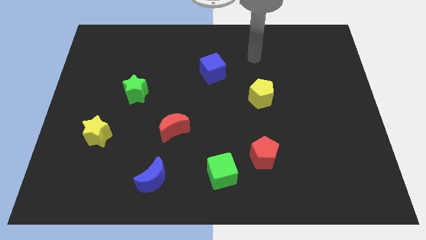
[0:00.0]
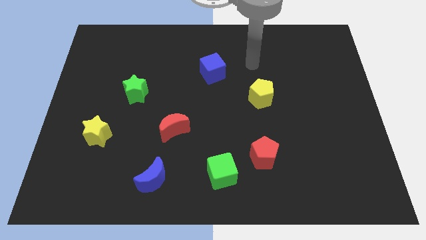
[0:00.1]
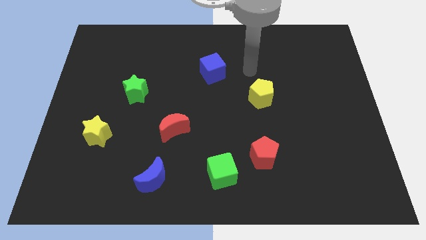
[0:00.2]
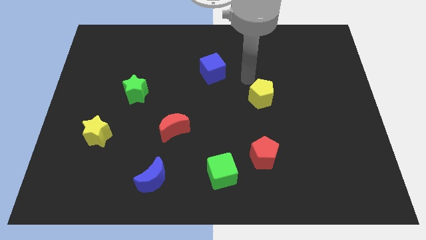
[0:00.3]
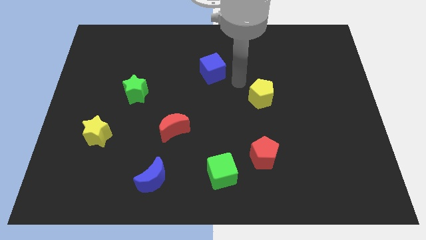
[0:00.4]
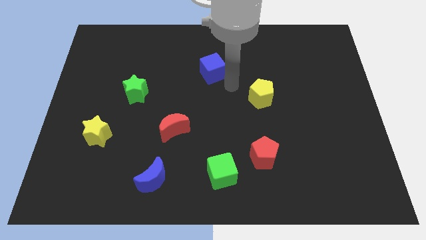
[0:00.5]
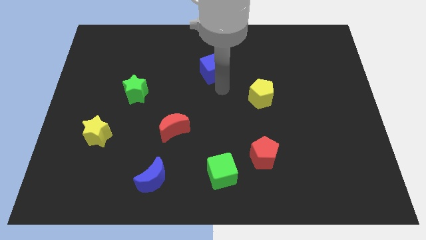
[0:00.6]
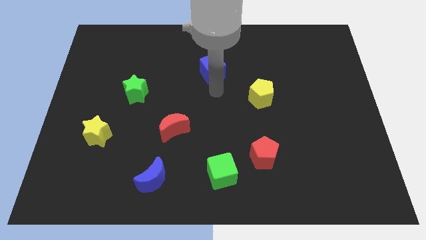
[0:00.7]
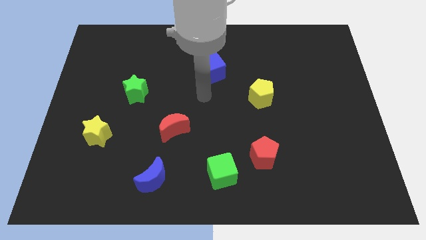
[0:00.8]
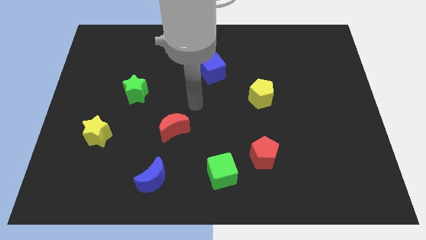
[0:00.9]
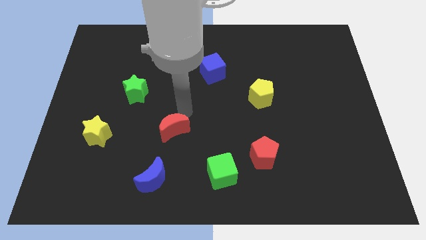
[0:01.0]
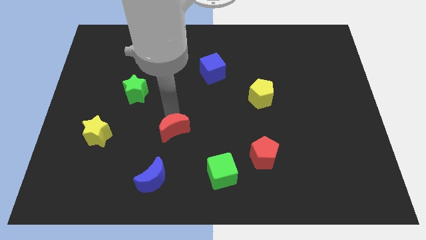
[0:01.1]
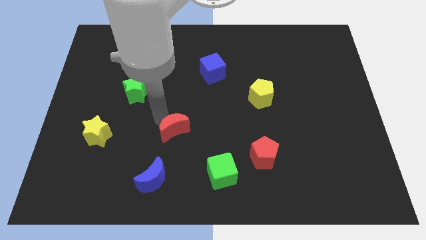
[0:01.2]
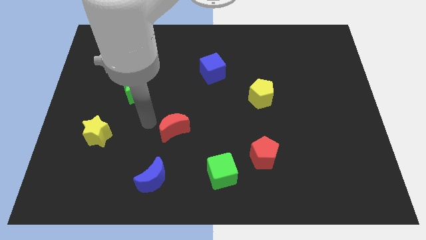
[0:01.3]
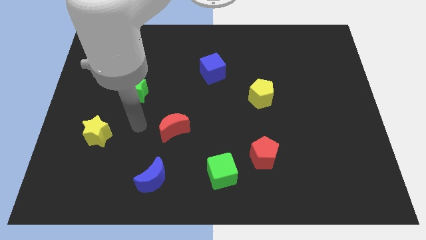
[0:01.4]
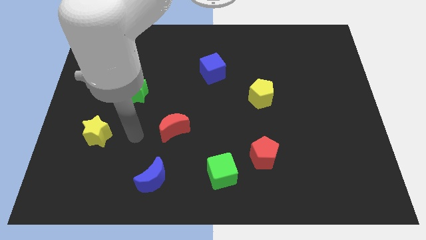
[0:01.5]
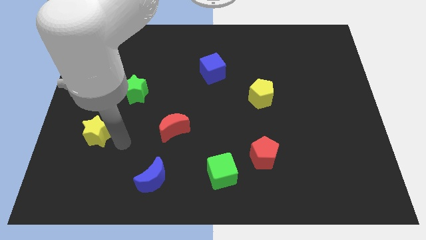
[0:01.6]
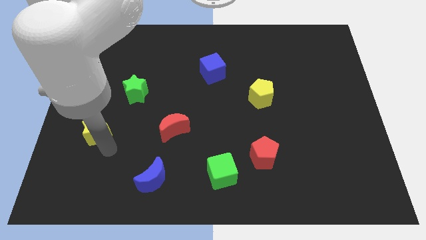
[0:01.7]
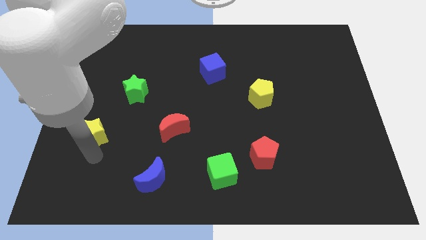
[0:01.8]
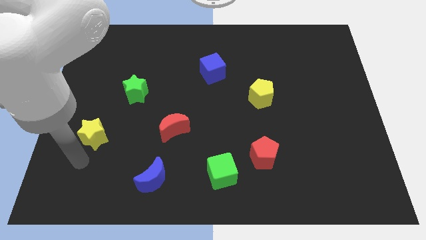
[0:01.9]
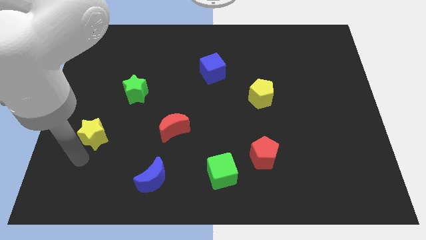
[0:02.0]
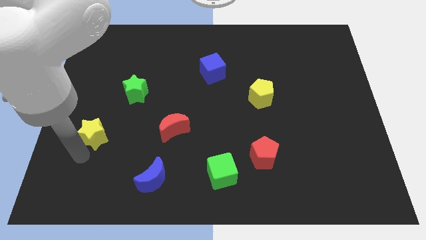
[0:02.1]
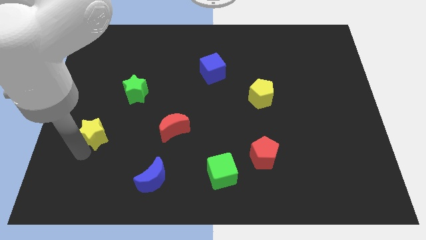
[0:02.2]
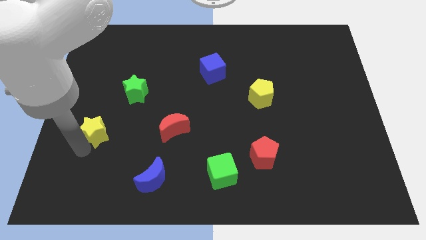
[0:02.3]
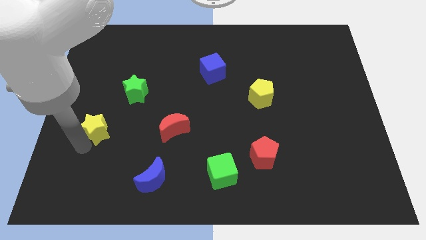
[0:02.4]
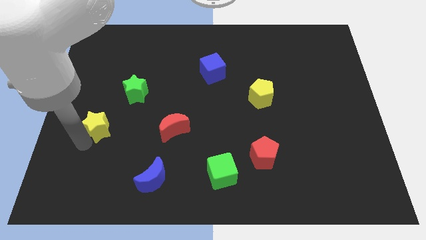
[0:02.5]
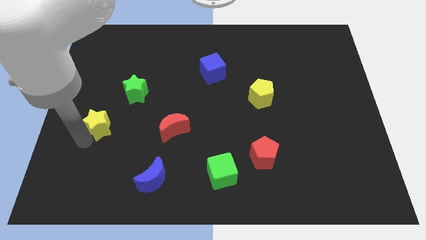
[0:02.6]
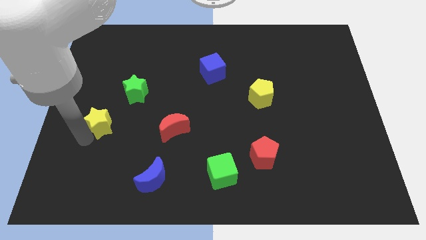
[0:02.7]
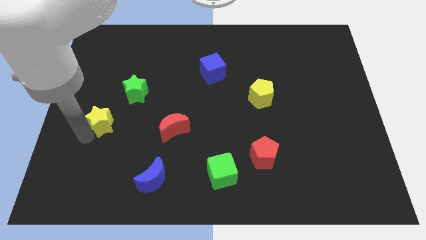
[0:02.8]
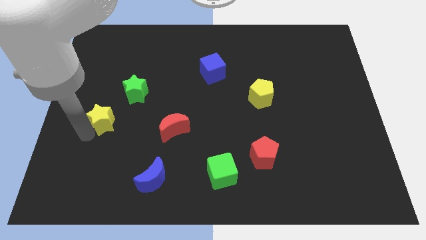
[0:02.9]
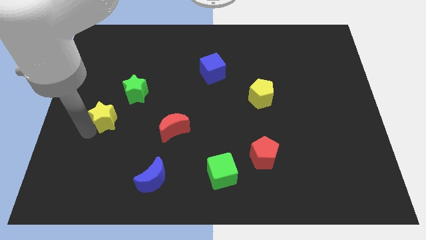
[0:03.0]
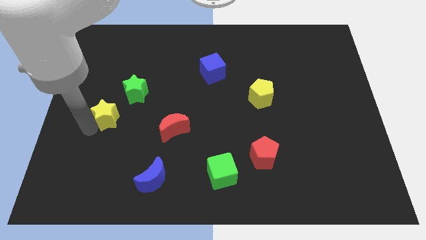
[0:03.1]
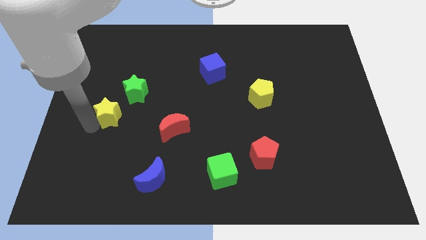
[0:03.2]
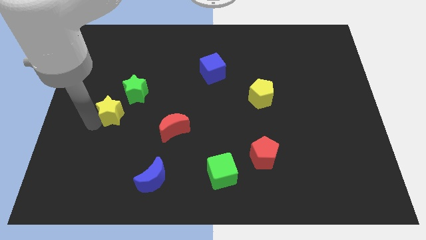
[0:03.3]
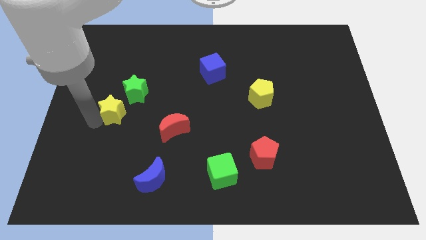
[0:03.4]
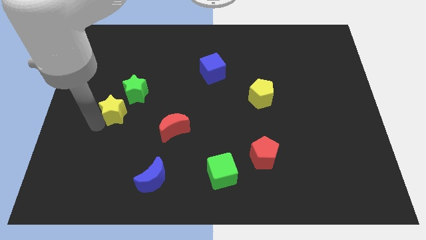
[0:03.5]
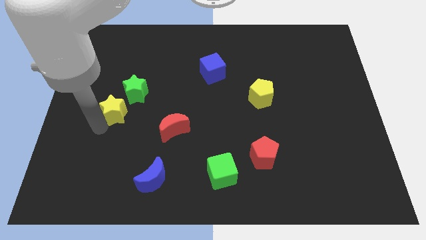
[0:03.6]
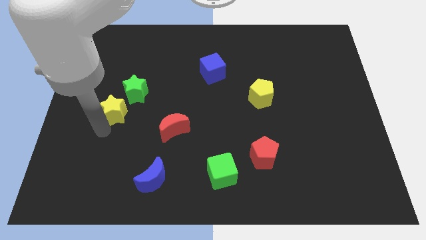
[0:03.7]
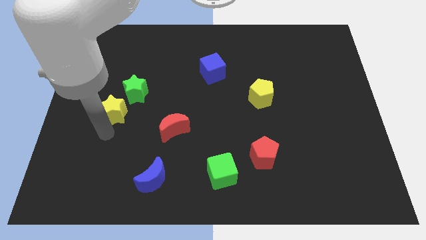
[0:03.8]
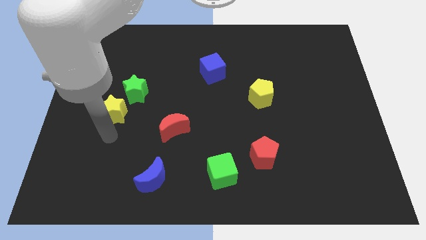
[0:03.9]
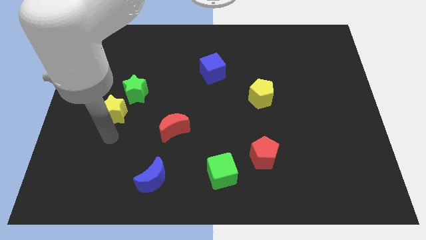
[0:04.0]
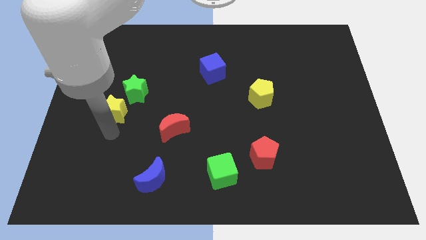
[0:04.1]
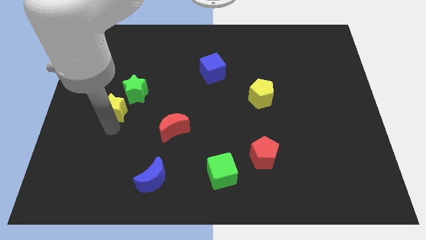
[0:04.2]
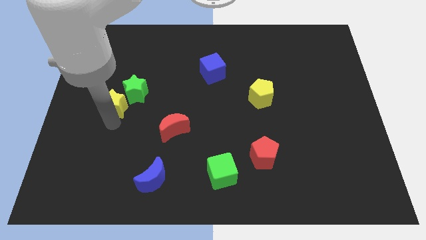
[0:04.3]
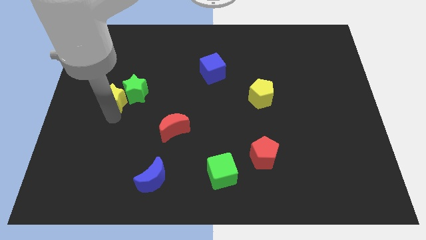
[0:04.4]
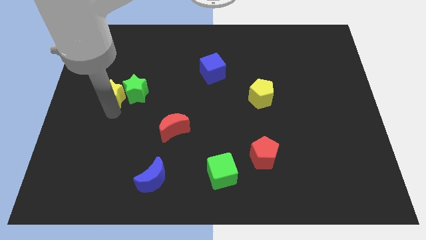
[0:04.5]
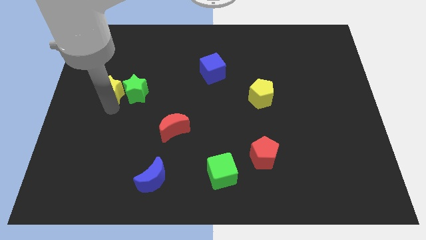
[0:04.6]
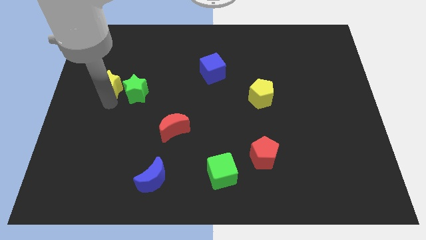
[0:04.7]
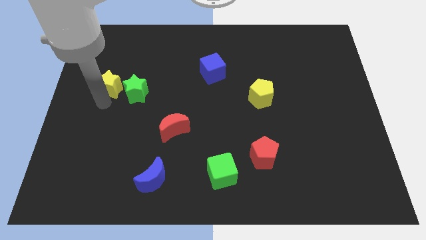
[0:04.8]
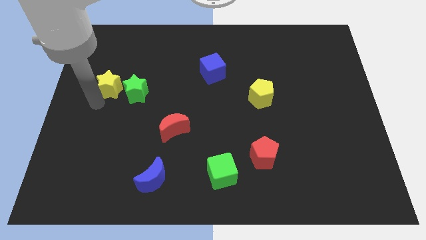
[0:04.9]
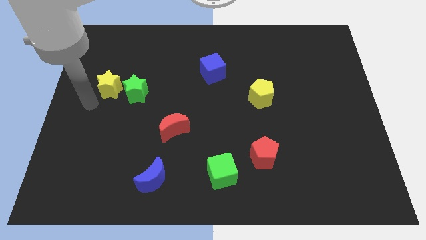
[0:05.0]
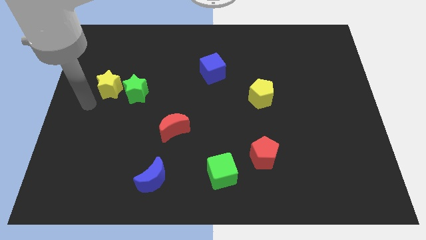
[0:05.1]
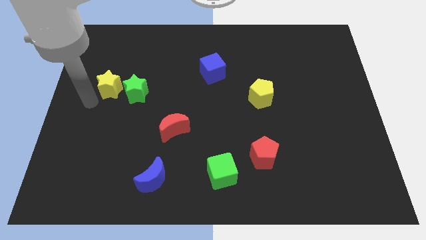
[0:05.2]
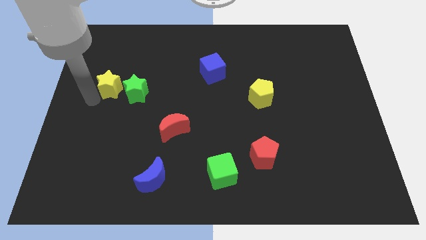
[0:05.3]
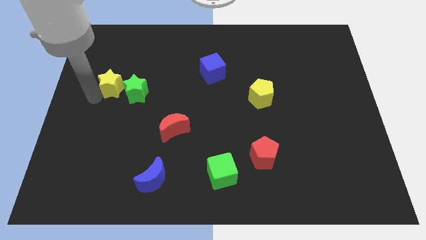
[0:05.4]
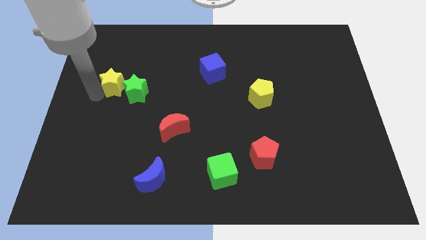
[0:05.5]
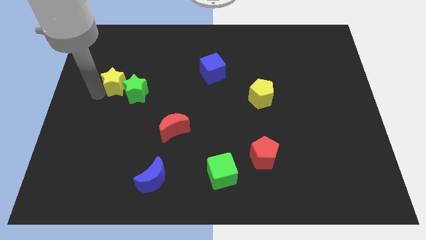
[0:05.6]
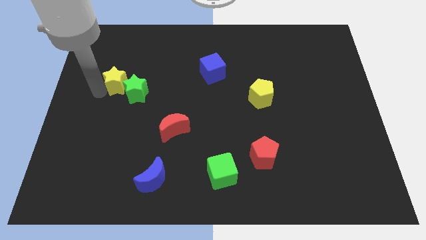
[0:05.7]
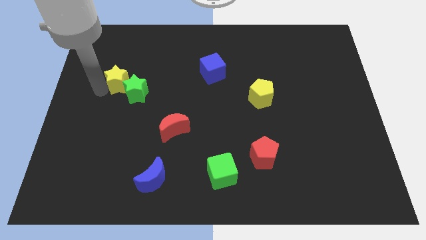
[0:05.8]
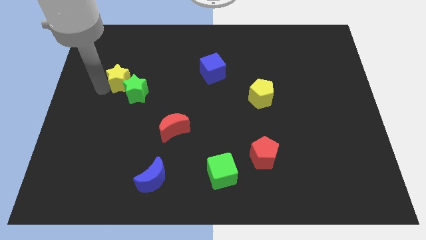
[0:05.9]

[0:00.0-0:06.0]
put the yellow star above the green star

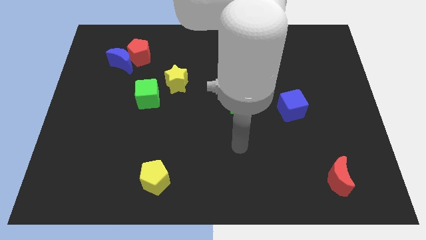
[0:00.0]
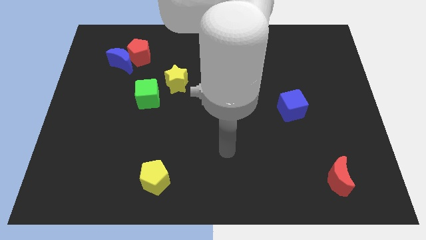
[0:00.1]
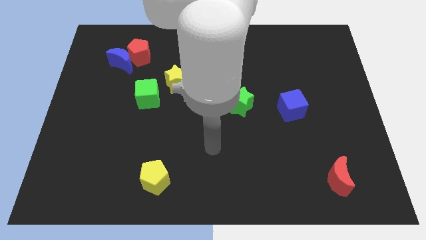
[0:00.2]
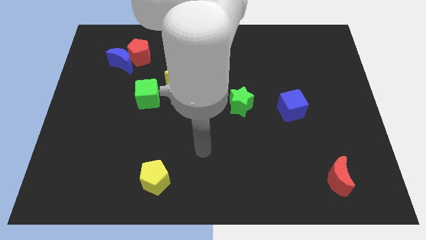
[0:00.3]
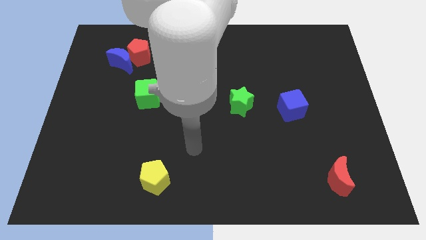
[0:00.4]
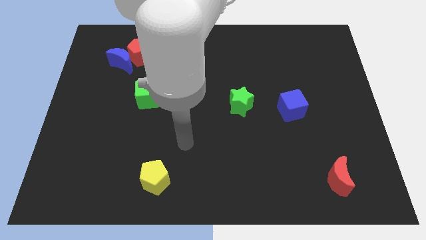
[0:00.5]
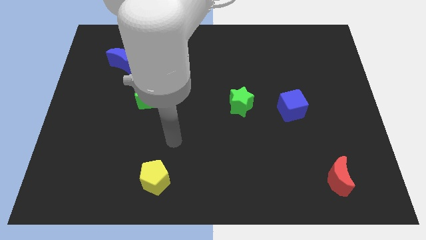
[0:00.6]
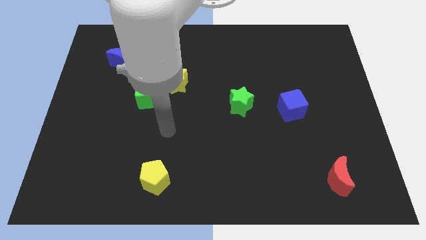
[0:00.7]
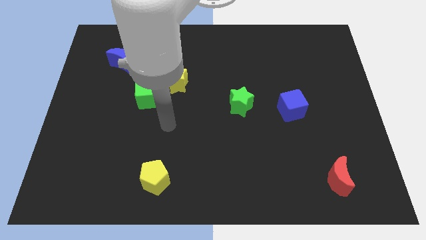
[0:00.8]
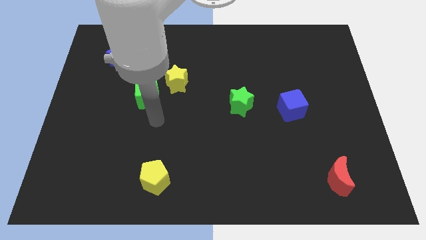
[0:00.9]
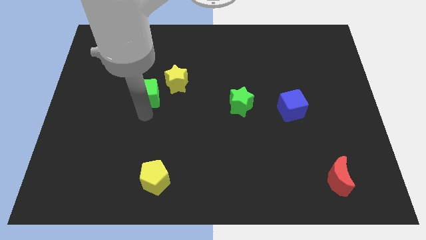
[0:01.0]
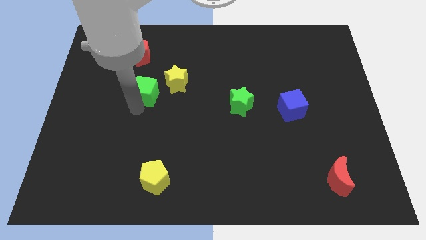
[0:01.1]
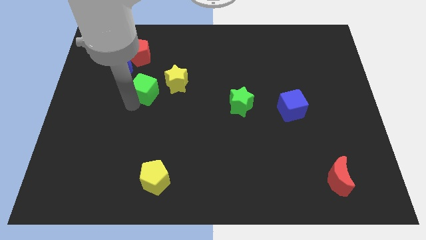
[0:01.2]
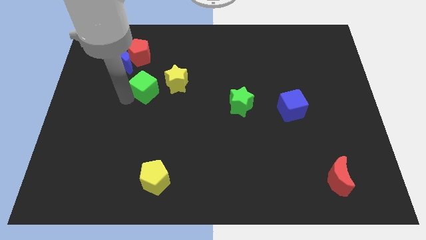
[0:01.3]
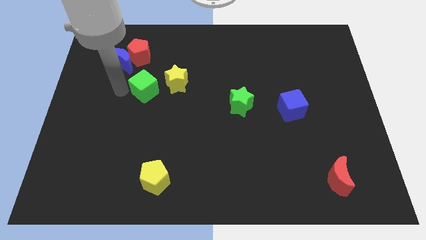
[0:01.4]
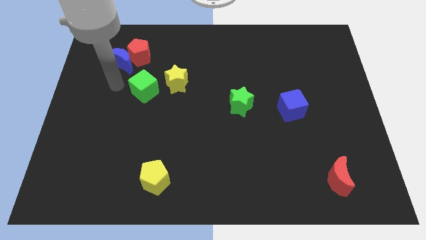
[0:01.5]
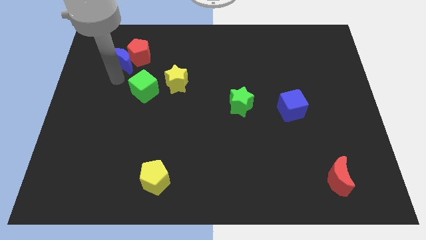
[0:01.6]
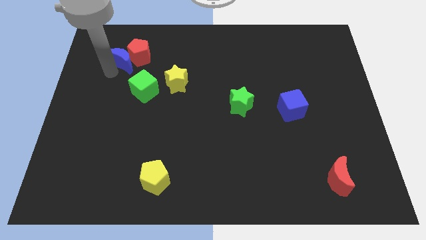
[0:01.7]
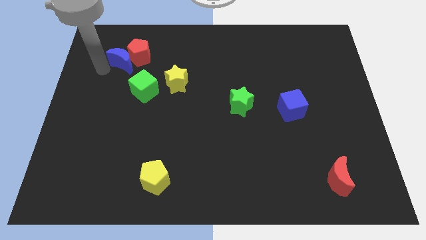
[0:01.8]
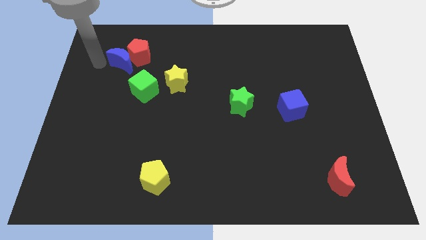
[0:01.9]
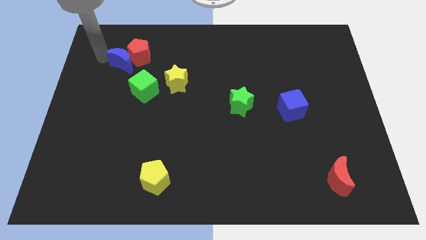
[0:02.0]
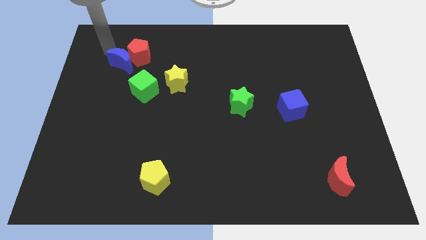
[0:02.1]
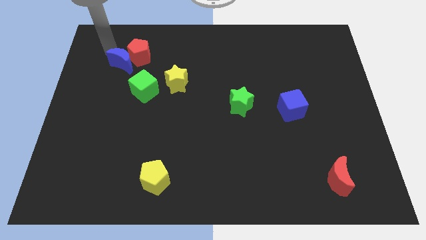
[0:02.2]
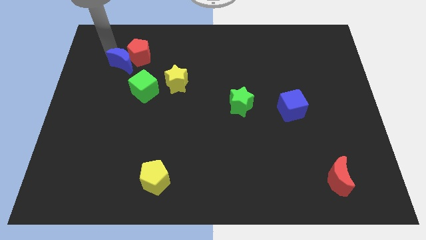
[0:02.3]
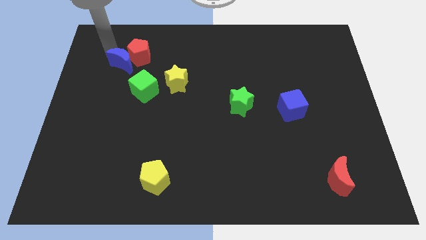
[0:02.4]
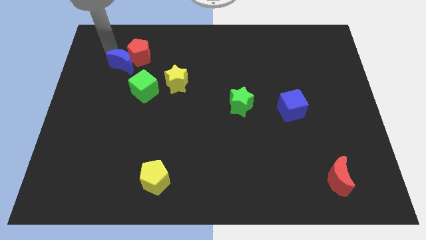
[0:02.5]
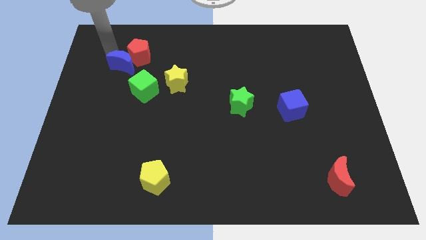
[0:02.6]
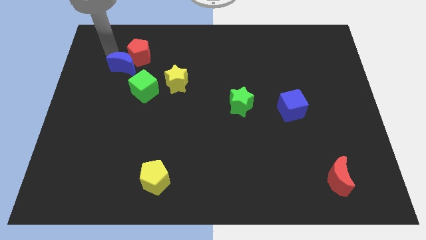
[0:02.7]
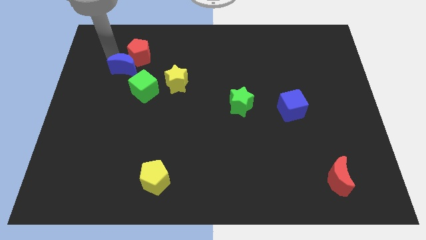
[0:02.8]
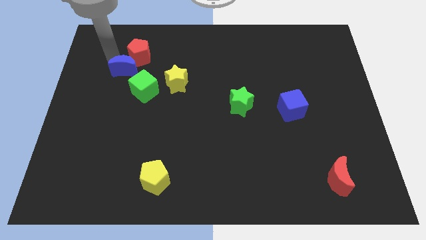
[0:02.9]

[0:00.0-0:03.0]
slide the blue moon just left of the yellow star
